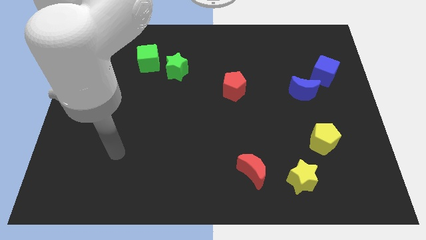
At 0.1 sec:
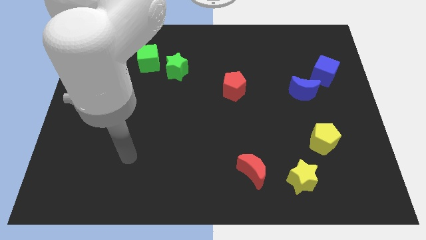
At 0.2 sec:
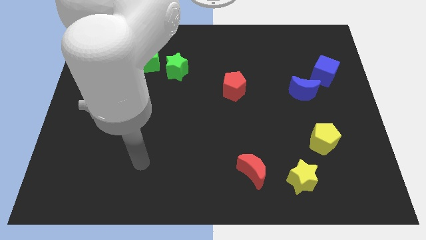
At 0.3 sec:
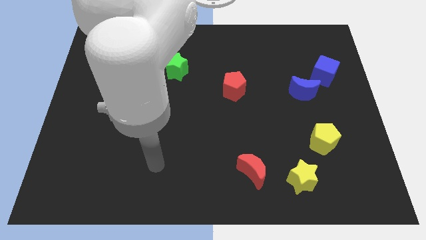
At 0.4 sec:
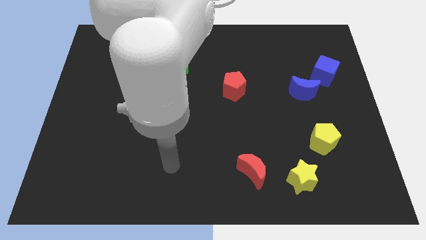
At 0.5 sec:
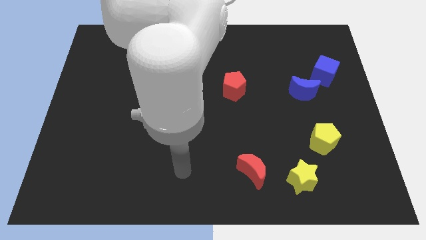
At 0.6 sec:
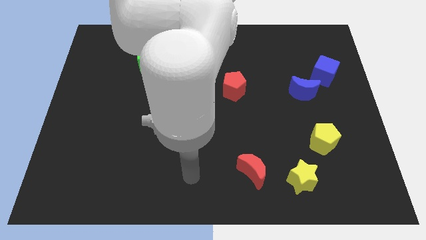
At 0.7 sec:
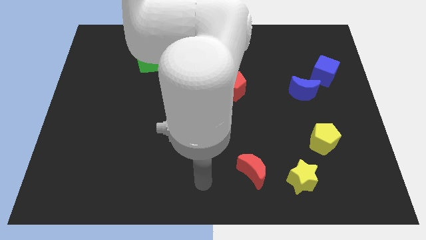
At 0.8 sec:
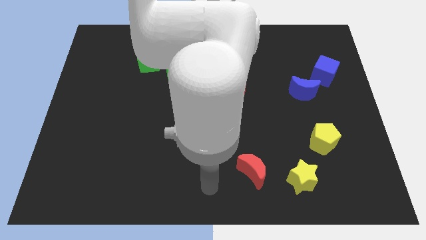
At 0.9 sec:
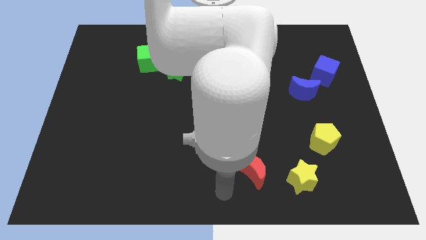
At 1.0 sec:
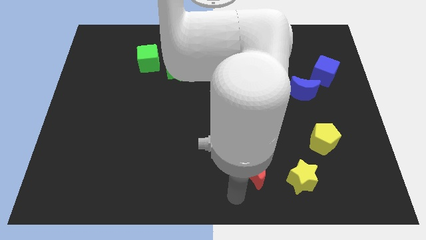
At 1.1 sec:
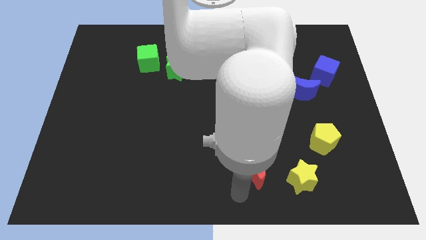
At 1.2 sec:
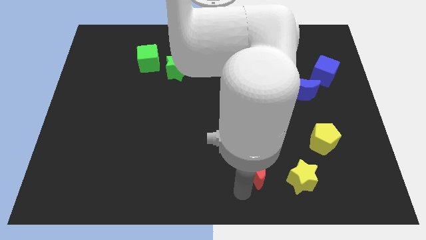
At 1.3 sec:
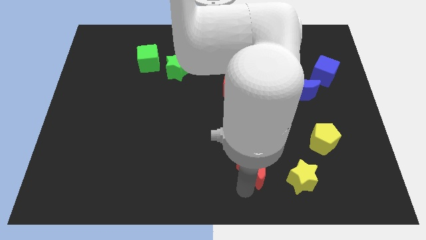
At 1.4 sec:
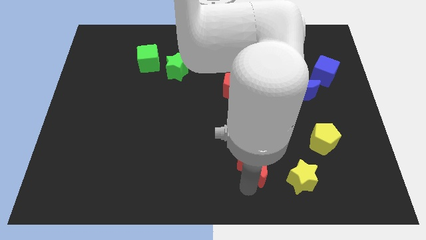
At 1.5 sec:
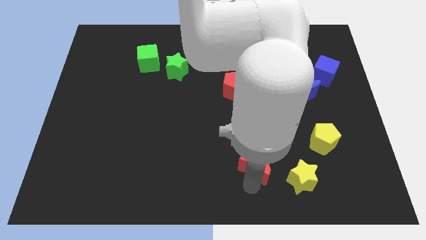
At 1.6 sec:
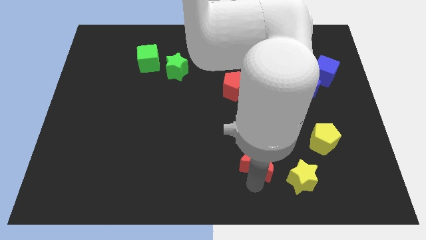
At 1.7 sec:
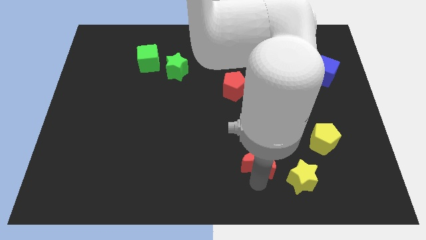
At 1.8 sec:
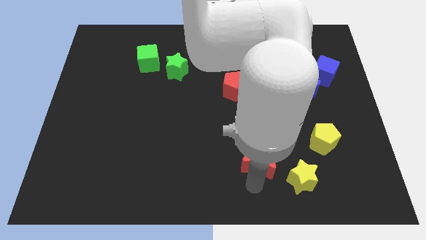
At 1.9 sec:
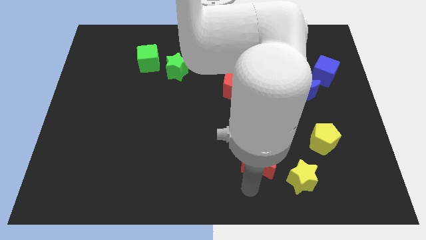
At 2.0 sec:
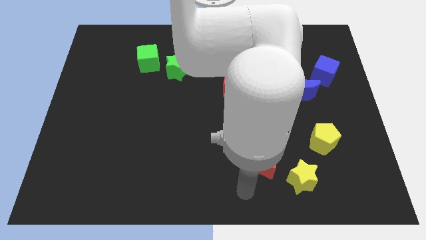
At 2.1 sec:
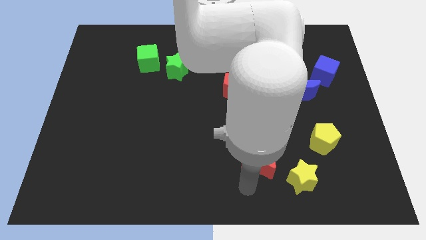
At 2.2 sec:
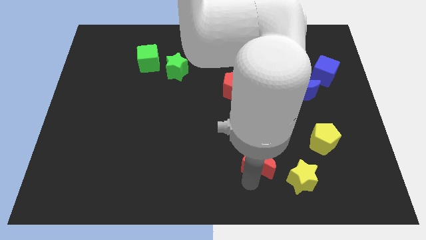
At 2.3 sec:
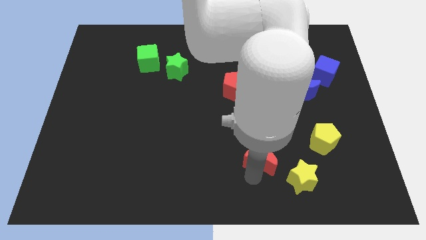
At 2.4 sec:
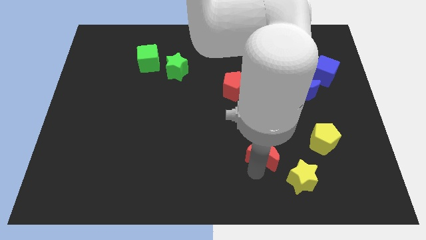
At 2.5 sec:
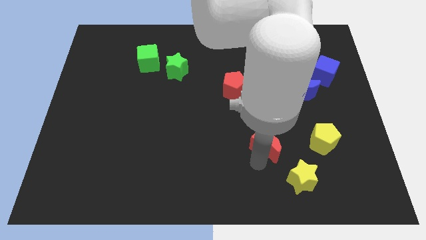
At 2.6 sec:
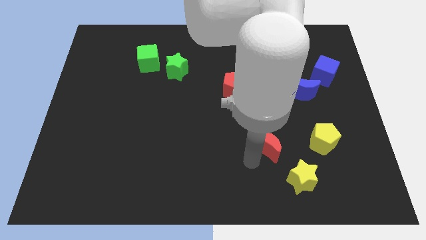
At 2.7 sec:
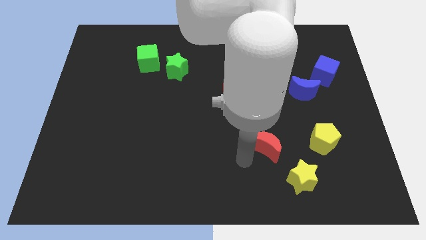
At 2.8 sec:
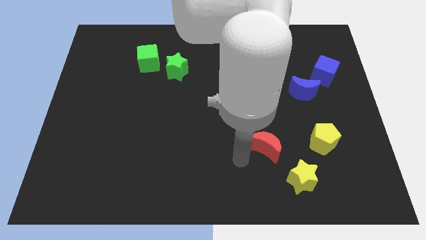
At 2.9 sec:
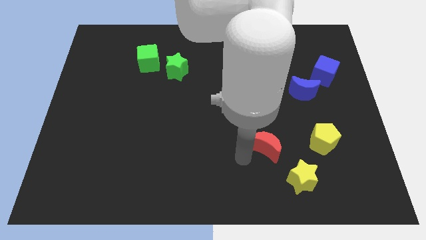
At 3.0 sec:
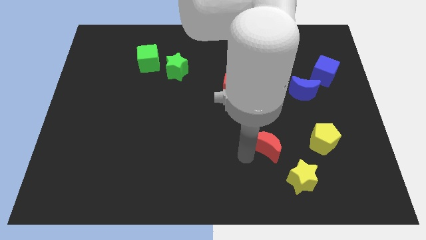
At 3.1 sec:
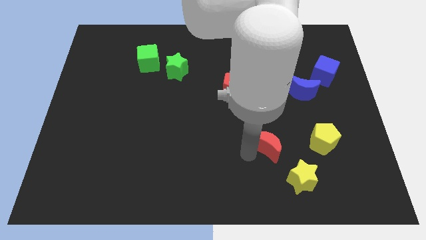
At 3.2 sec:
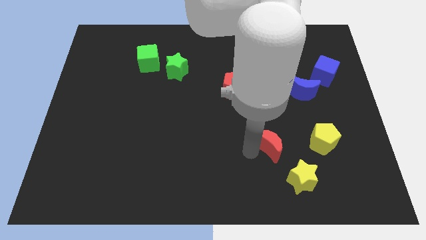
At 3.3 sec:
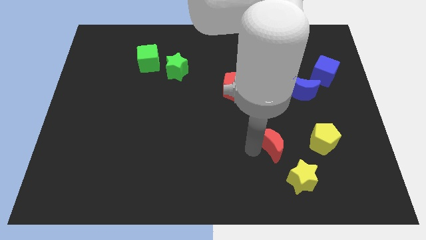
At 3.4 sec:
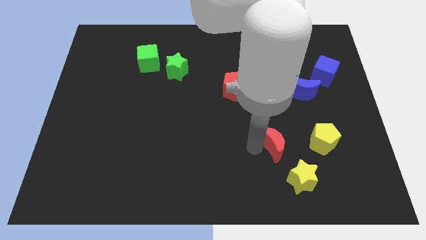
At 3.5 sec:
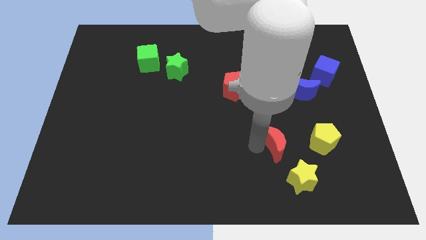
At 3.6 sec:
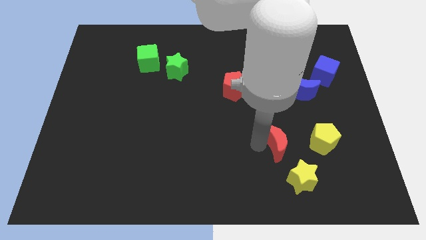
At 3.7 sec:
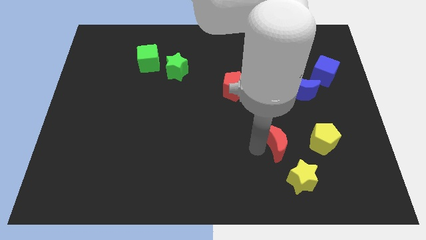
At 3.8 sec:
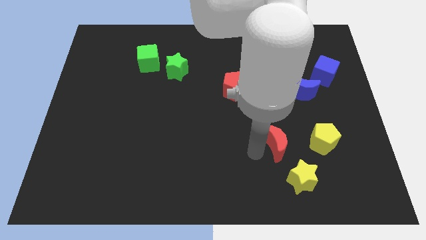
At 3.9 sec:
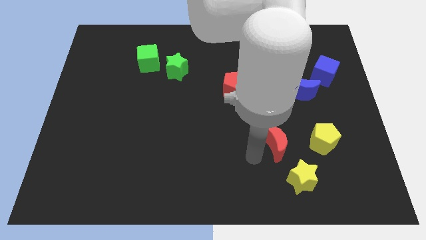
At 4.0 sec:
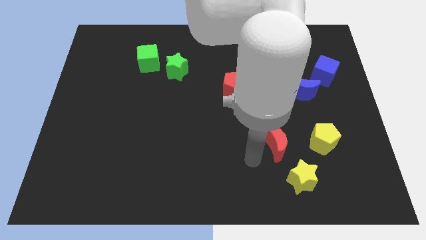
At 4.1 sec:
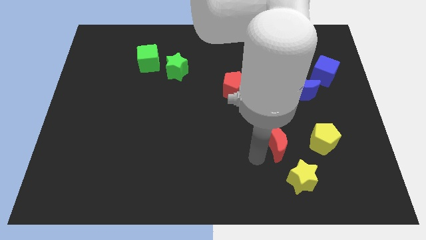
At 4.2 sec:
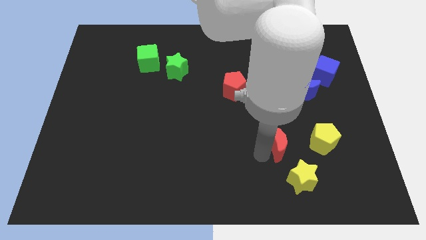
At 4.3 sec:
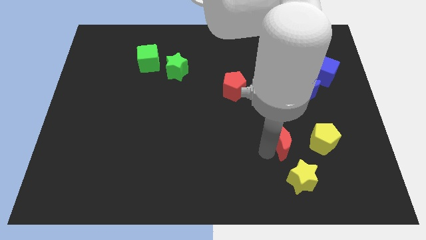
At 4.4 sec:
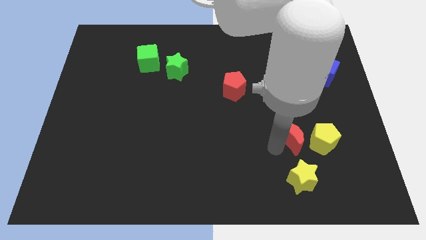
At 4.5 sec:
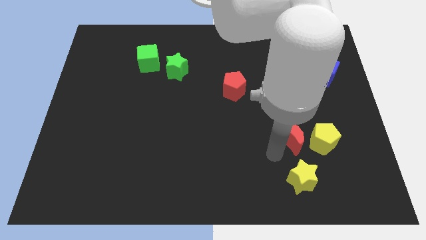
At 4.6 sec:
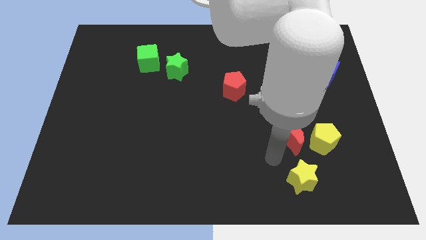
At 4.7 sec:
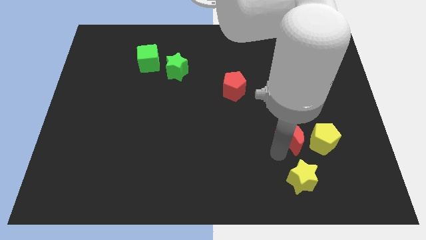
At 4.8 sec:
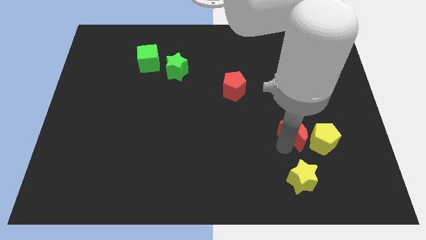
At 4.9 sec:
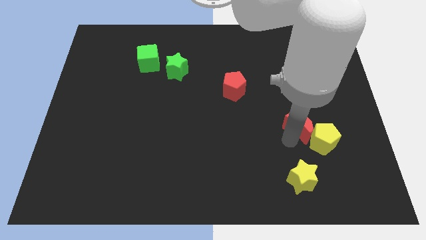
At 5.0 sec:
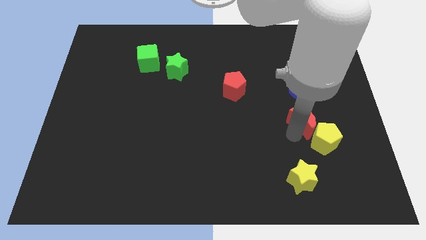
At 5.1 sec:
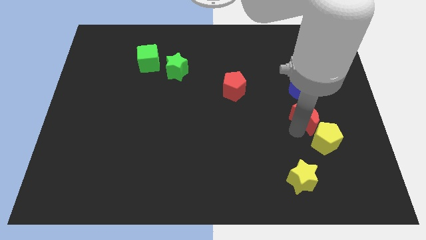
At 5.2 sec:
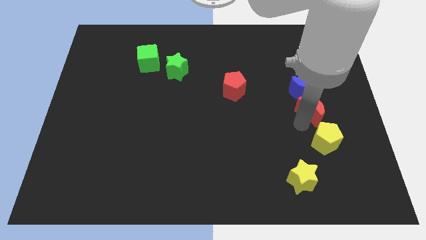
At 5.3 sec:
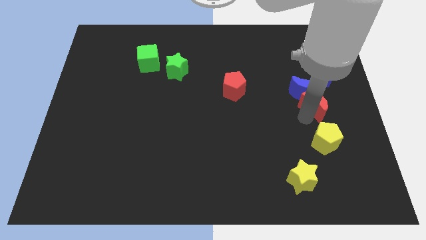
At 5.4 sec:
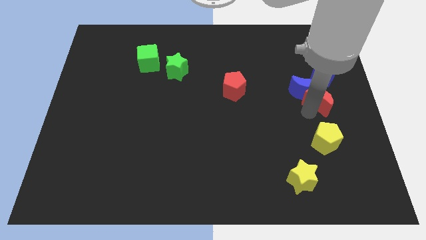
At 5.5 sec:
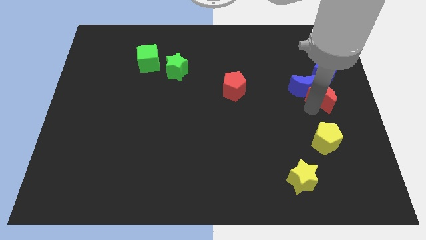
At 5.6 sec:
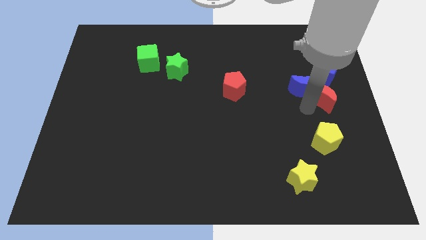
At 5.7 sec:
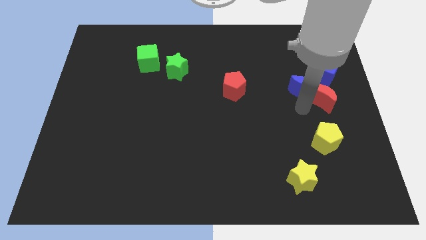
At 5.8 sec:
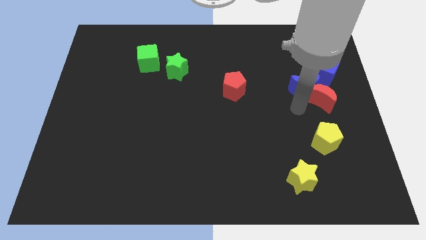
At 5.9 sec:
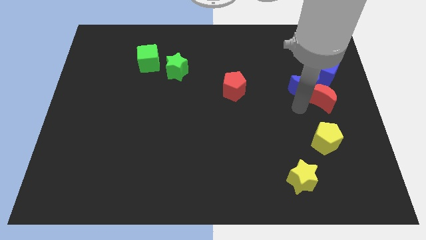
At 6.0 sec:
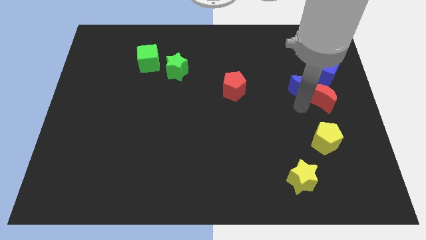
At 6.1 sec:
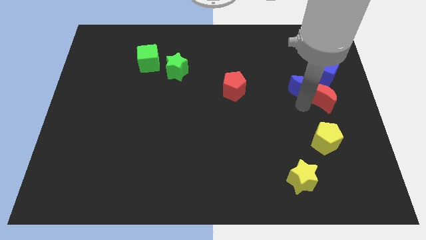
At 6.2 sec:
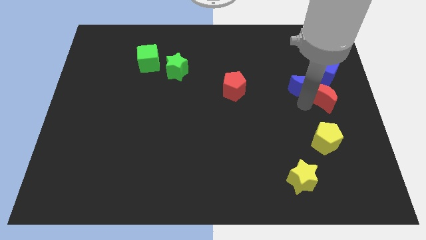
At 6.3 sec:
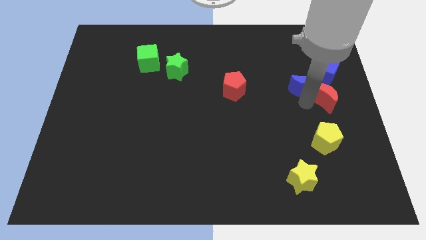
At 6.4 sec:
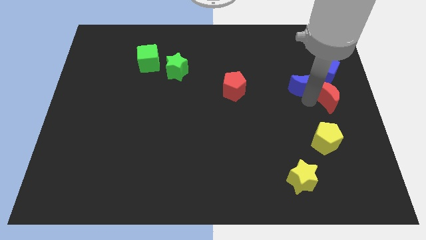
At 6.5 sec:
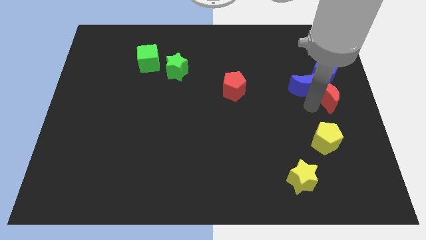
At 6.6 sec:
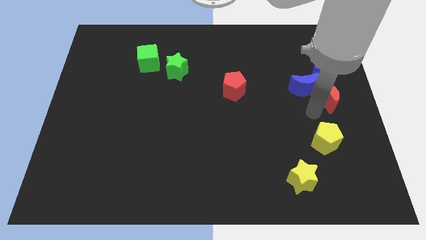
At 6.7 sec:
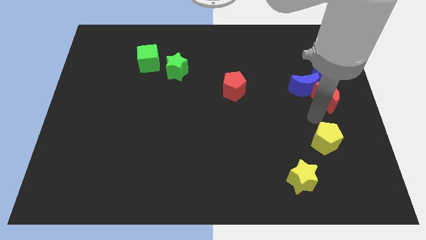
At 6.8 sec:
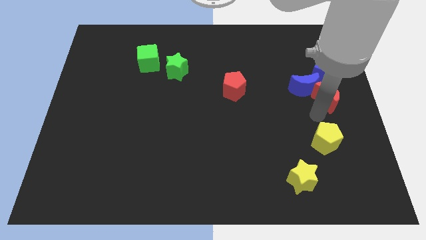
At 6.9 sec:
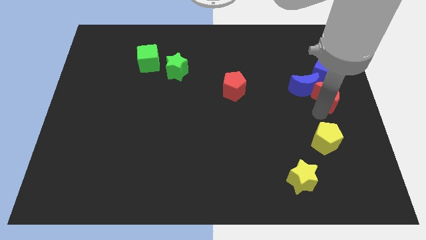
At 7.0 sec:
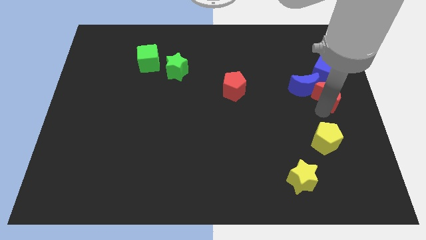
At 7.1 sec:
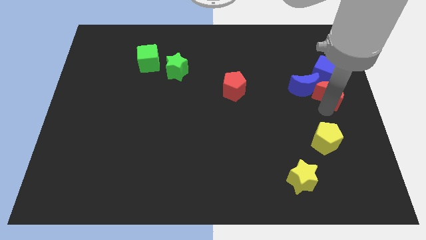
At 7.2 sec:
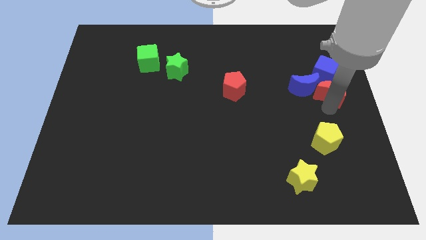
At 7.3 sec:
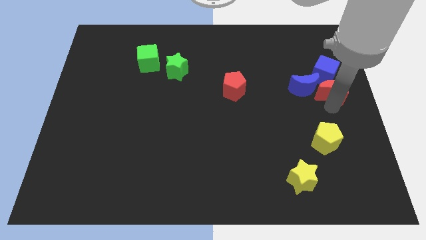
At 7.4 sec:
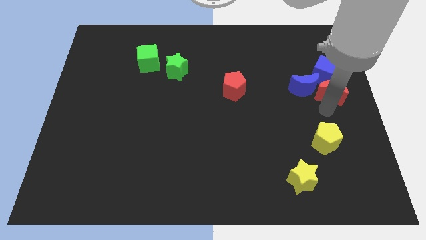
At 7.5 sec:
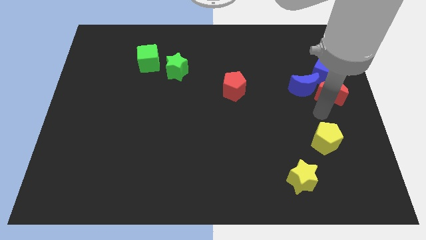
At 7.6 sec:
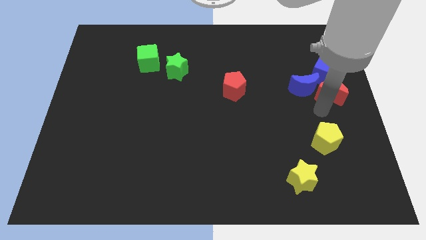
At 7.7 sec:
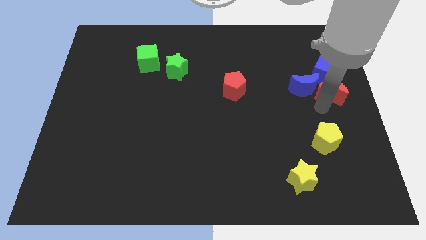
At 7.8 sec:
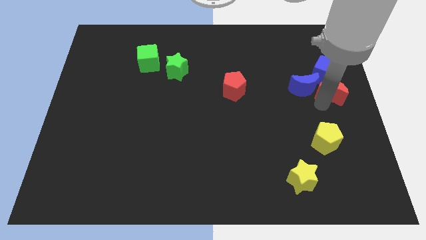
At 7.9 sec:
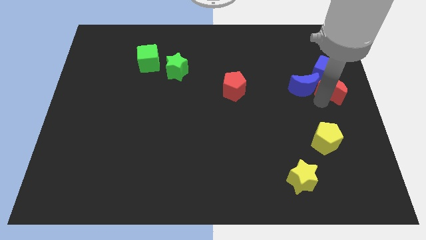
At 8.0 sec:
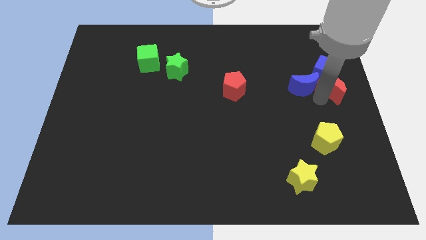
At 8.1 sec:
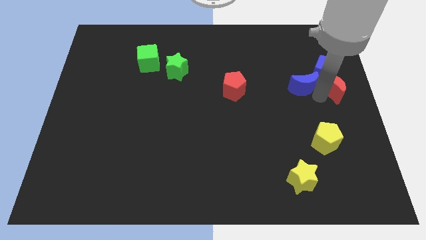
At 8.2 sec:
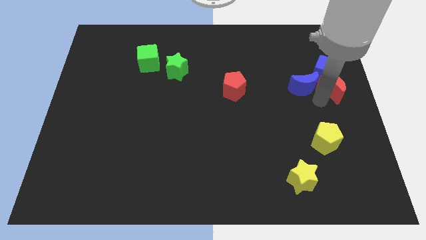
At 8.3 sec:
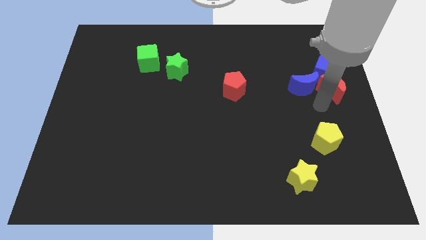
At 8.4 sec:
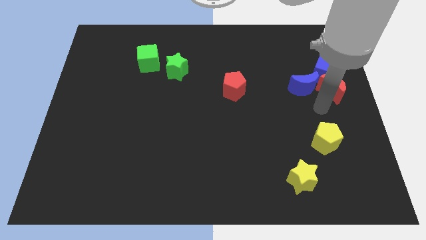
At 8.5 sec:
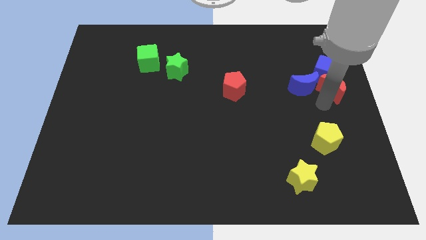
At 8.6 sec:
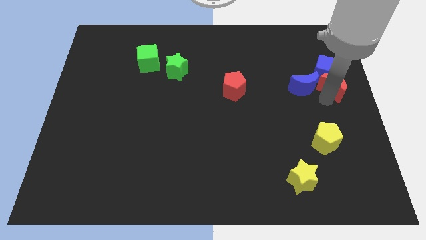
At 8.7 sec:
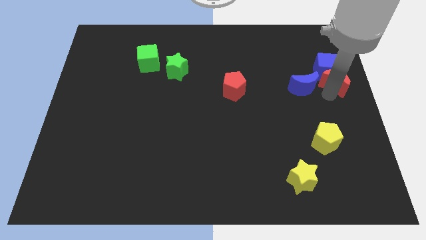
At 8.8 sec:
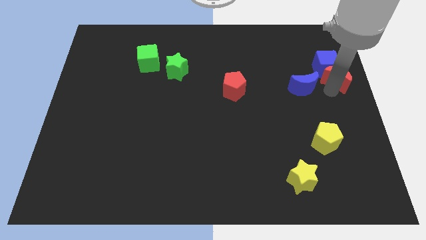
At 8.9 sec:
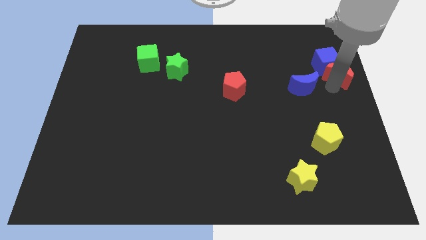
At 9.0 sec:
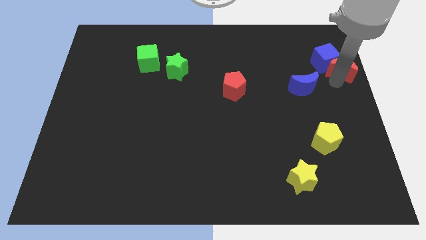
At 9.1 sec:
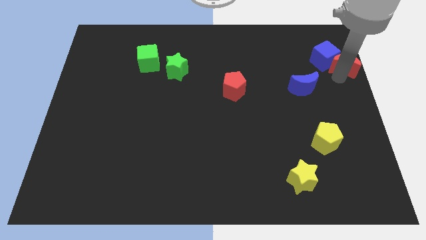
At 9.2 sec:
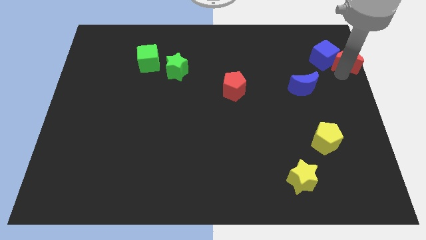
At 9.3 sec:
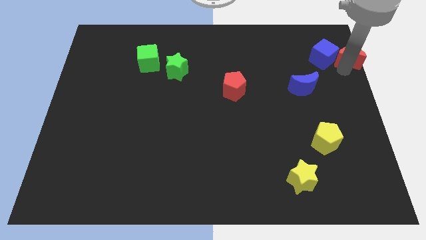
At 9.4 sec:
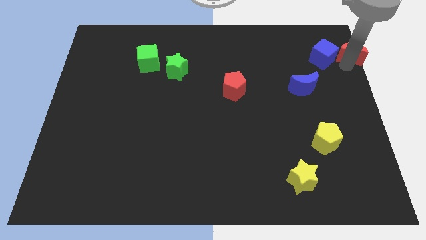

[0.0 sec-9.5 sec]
push the red moon to the top right corner
